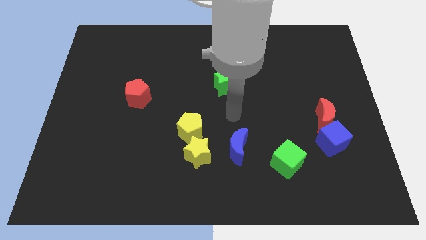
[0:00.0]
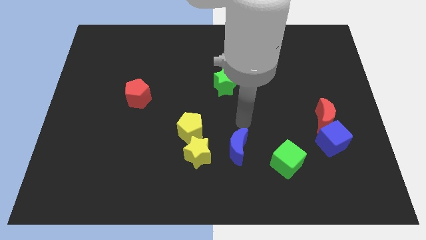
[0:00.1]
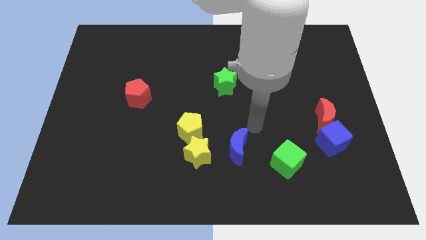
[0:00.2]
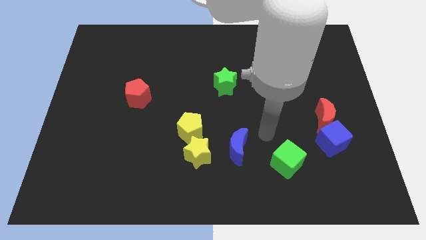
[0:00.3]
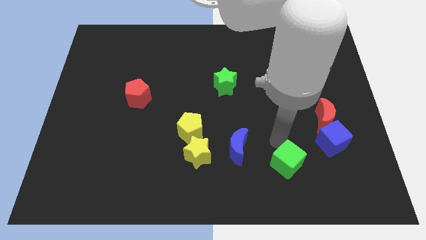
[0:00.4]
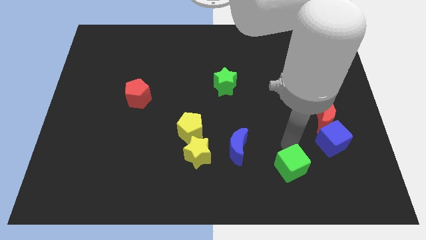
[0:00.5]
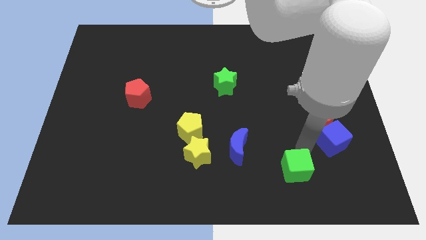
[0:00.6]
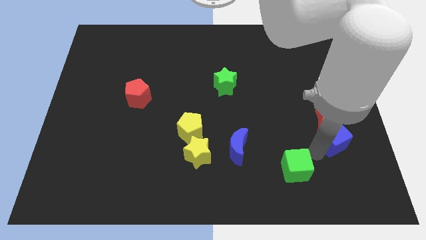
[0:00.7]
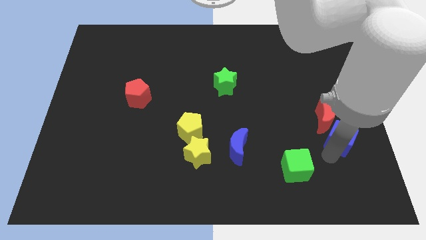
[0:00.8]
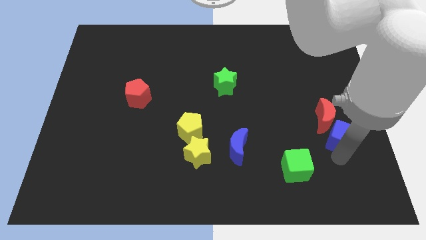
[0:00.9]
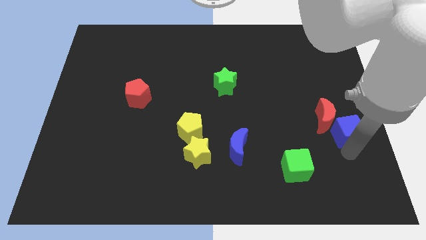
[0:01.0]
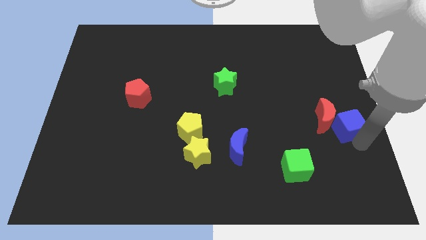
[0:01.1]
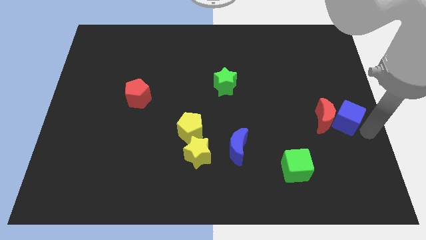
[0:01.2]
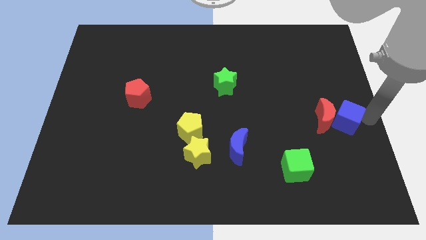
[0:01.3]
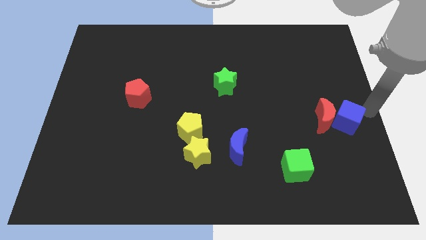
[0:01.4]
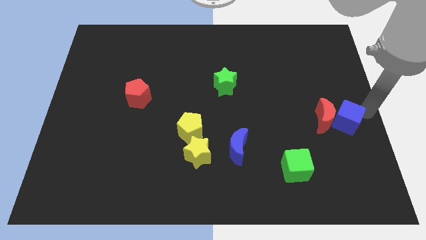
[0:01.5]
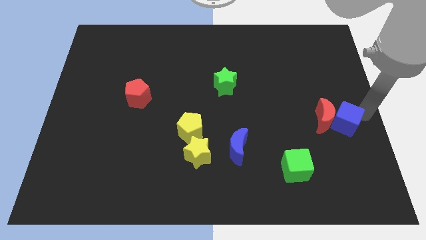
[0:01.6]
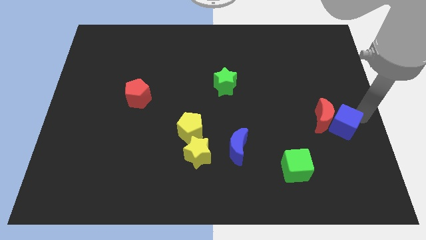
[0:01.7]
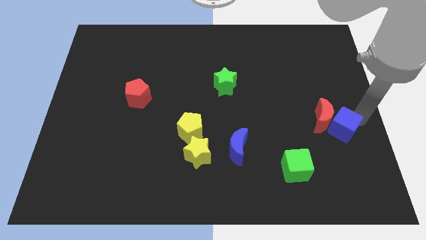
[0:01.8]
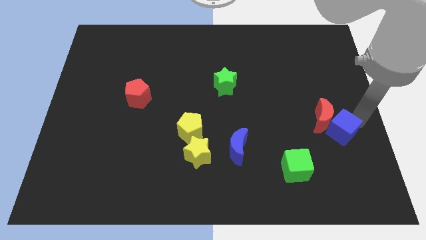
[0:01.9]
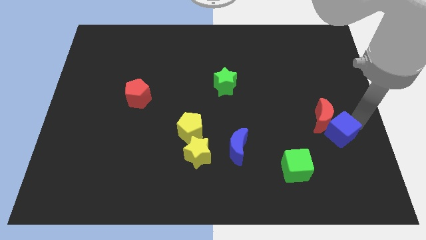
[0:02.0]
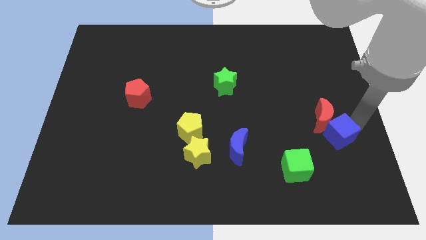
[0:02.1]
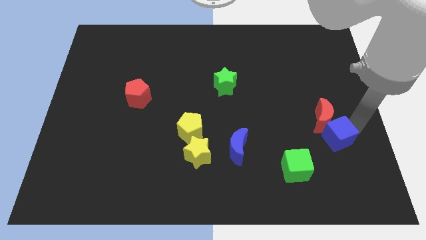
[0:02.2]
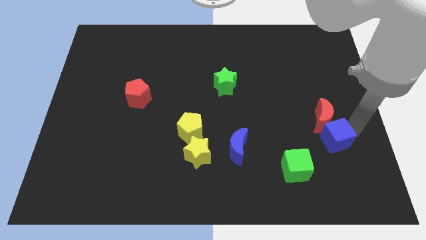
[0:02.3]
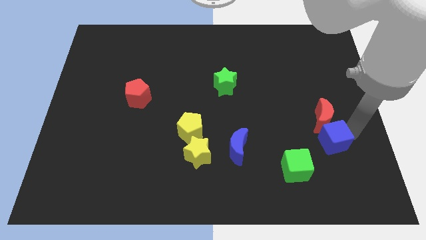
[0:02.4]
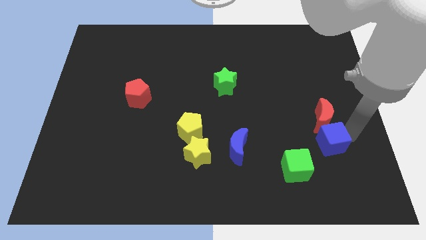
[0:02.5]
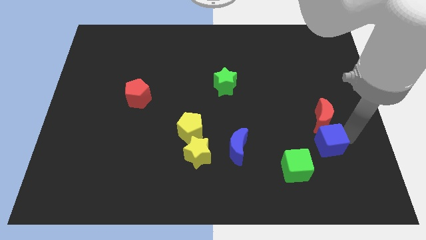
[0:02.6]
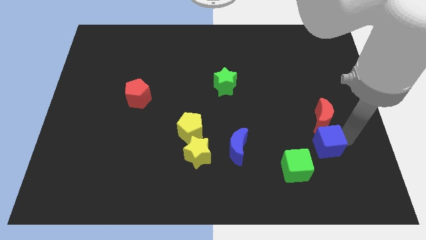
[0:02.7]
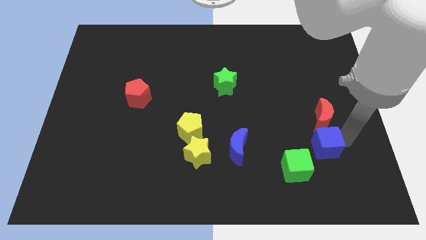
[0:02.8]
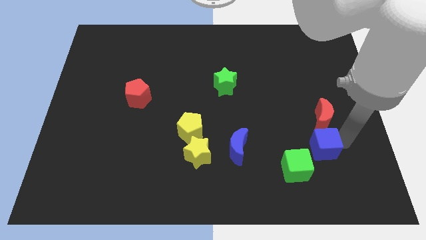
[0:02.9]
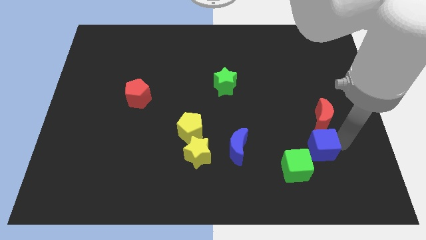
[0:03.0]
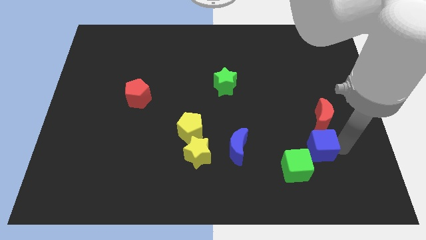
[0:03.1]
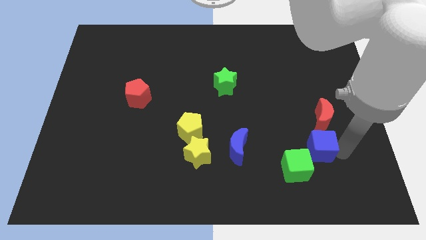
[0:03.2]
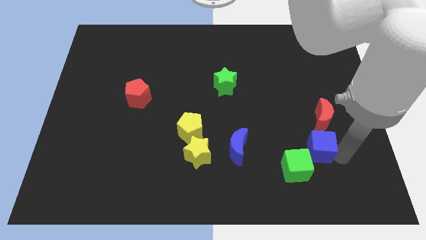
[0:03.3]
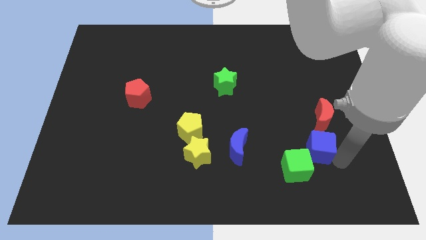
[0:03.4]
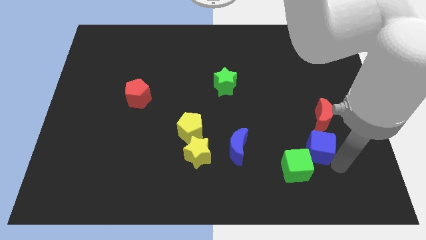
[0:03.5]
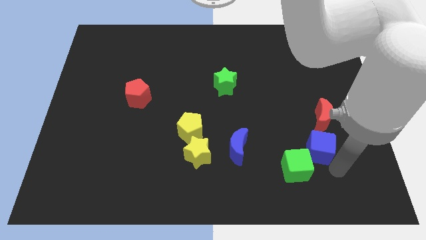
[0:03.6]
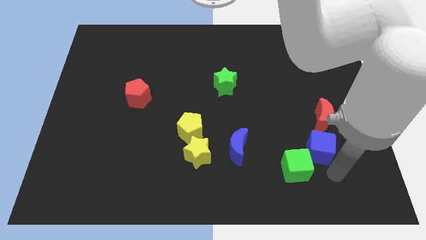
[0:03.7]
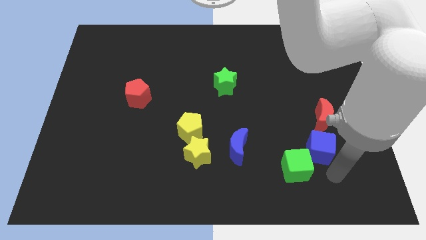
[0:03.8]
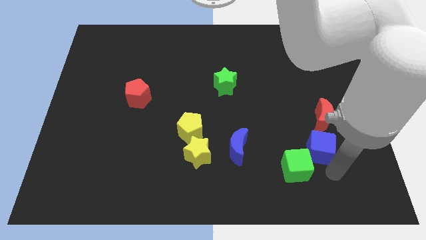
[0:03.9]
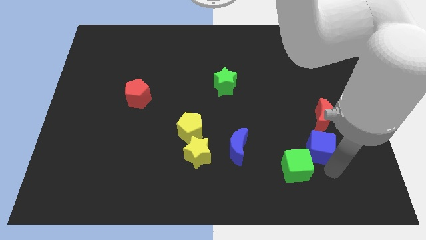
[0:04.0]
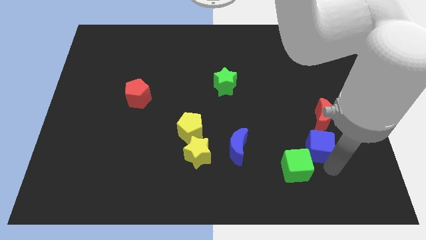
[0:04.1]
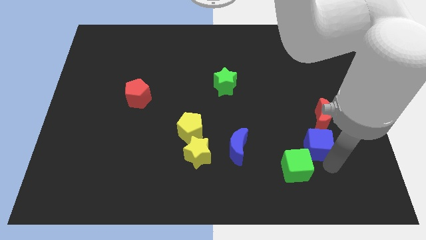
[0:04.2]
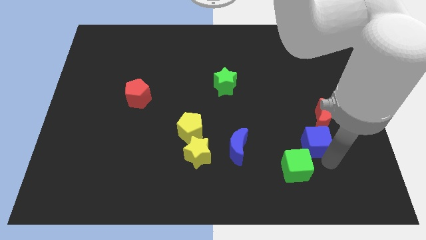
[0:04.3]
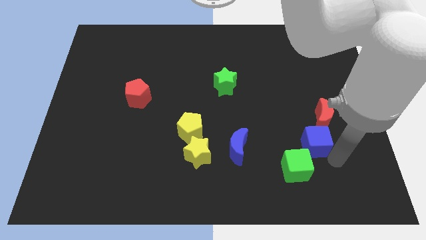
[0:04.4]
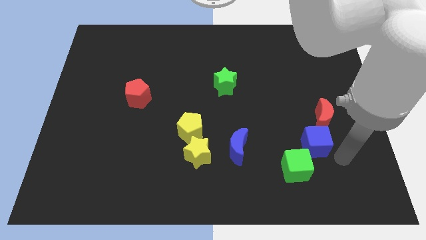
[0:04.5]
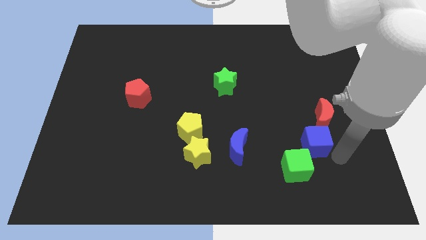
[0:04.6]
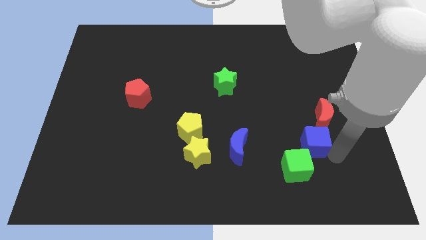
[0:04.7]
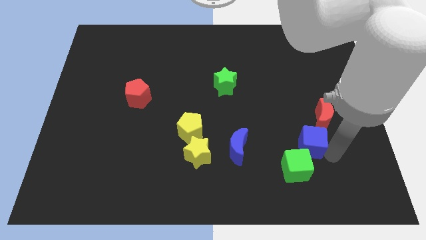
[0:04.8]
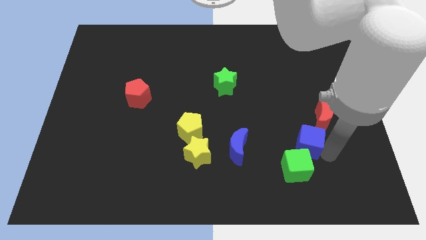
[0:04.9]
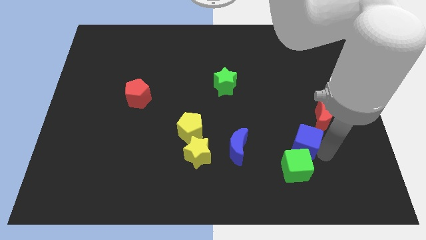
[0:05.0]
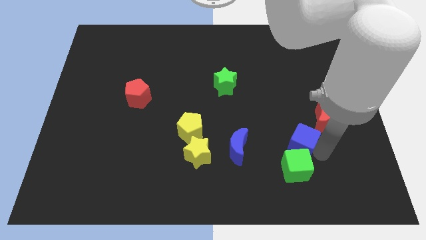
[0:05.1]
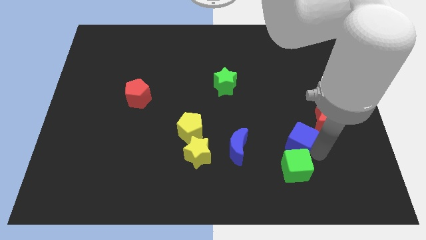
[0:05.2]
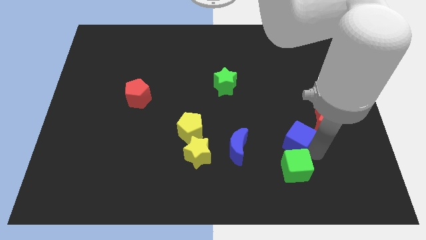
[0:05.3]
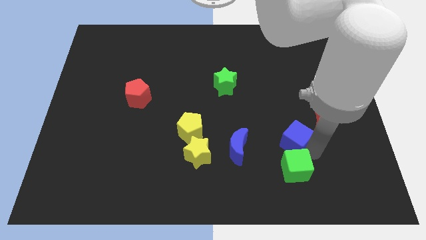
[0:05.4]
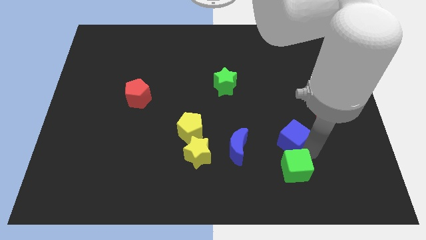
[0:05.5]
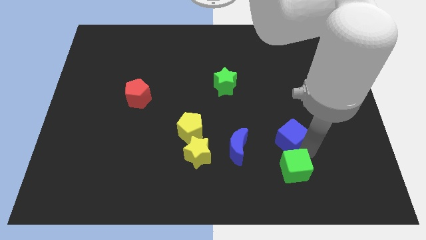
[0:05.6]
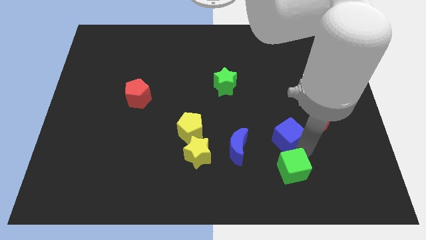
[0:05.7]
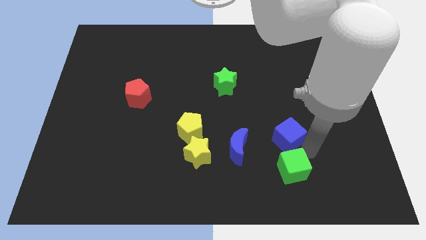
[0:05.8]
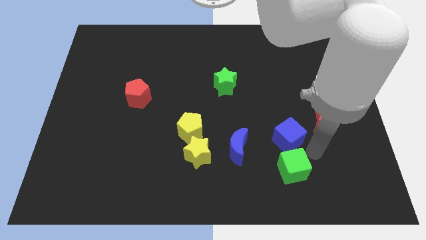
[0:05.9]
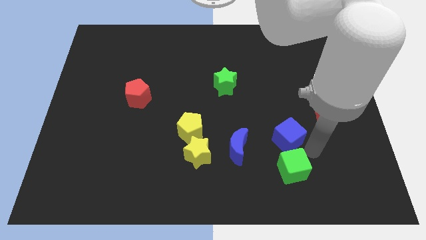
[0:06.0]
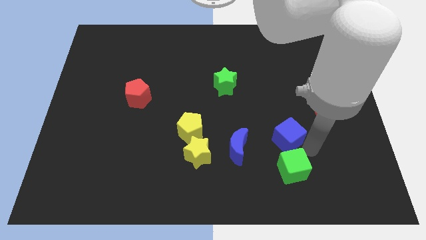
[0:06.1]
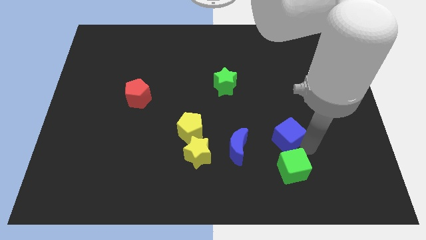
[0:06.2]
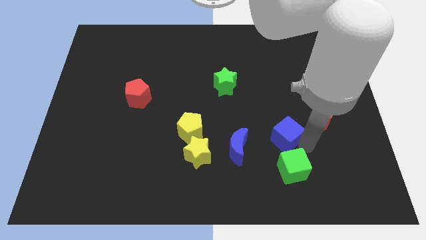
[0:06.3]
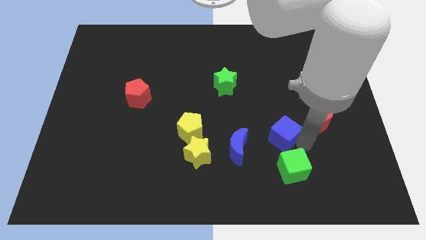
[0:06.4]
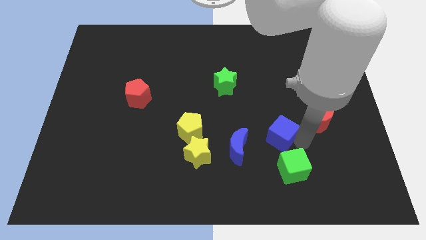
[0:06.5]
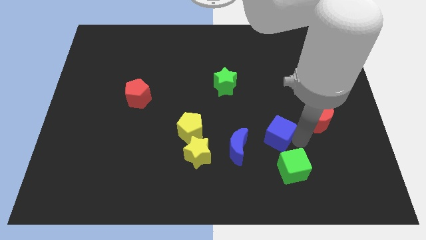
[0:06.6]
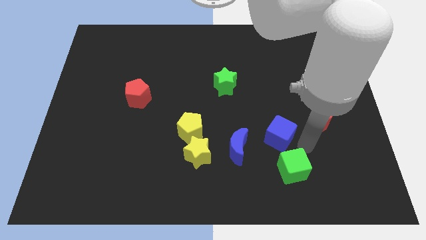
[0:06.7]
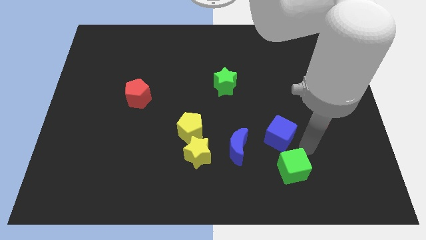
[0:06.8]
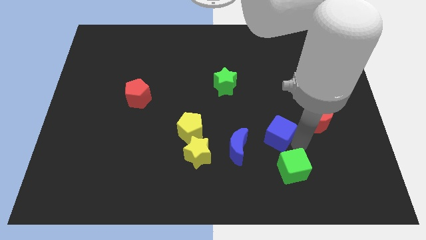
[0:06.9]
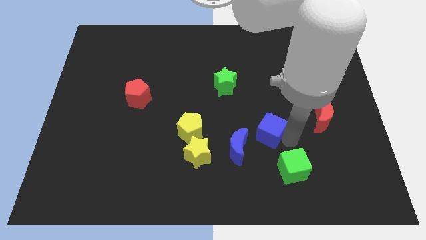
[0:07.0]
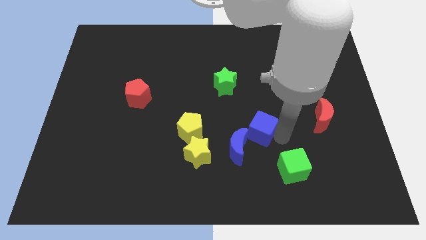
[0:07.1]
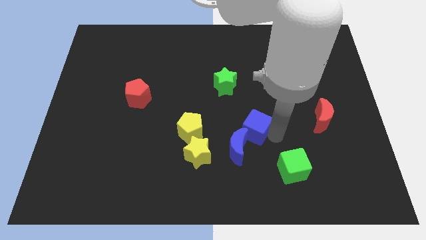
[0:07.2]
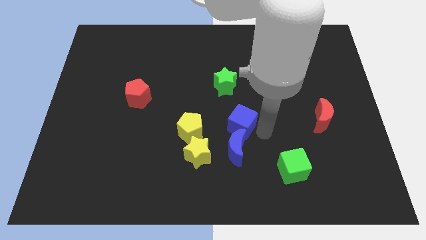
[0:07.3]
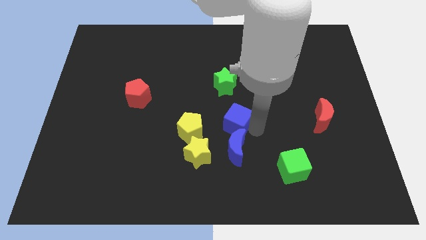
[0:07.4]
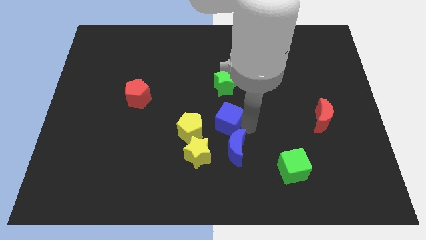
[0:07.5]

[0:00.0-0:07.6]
put the blue cube to the top right of the yellow pentagon
